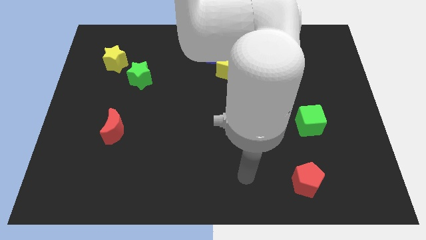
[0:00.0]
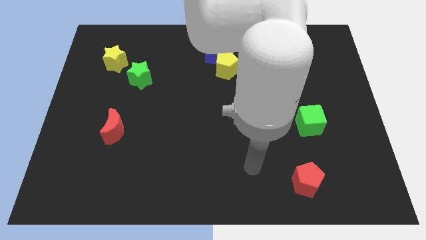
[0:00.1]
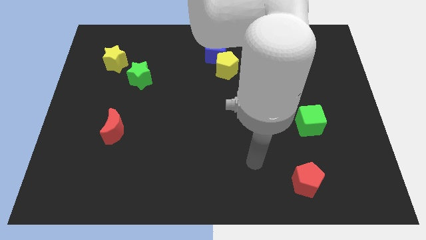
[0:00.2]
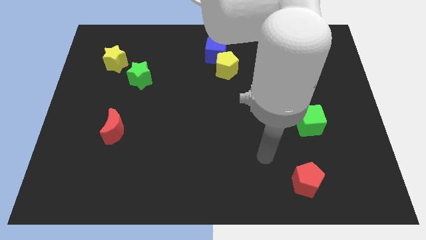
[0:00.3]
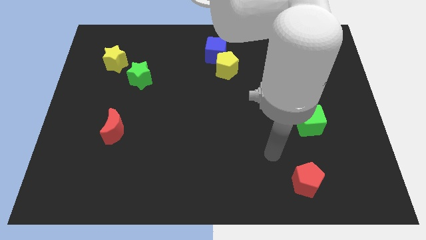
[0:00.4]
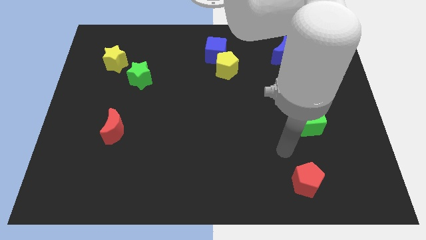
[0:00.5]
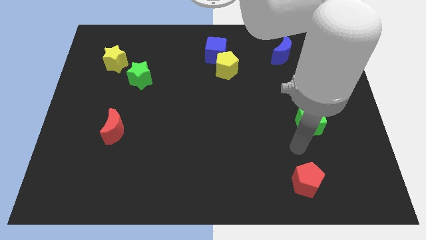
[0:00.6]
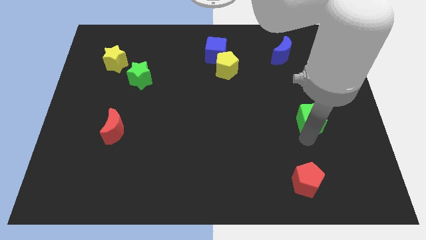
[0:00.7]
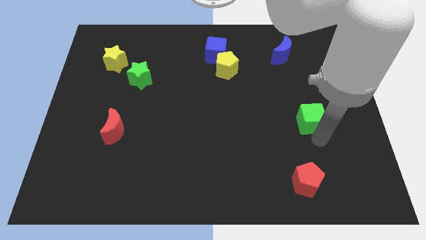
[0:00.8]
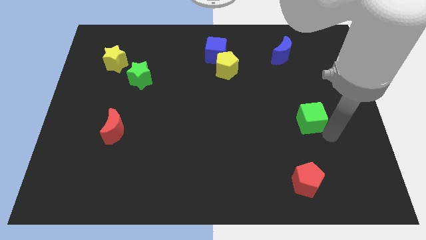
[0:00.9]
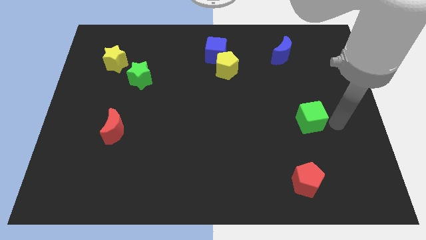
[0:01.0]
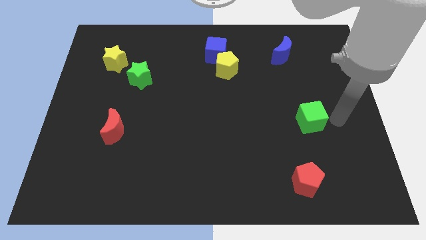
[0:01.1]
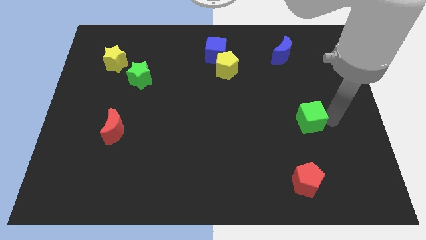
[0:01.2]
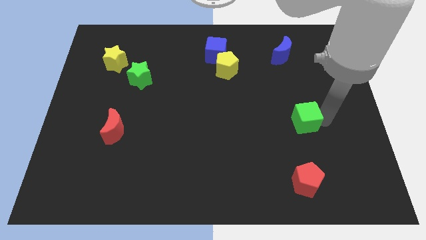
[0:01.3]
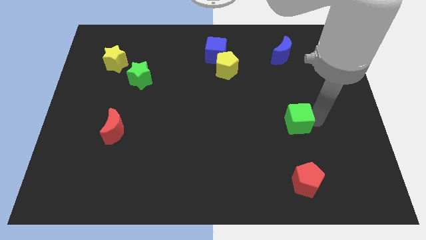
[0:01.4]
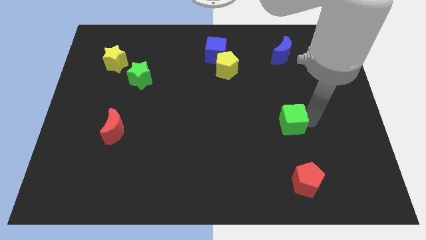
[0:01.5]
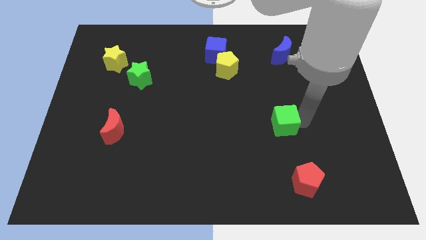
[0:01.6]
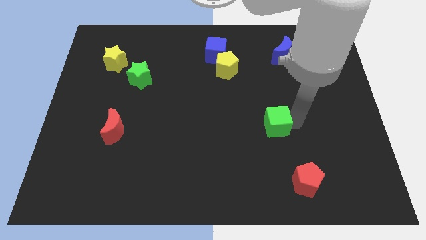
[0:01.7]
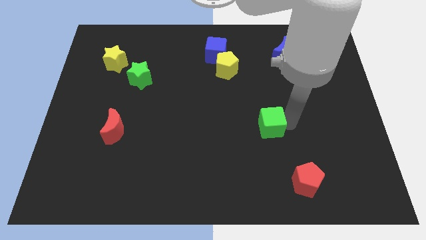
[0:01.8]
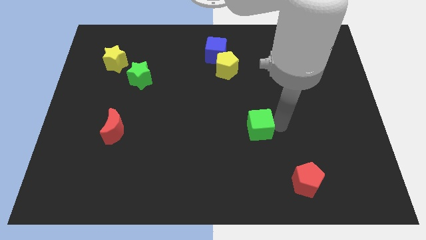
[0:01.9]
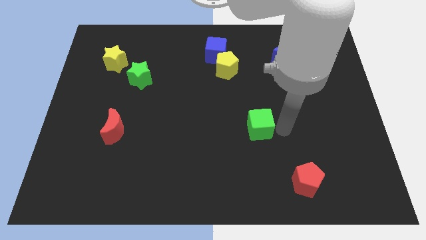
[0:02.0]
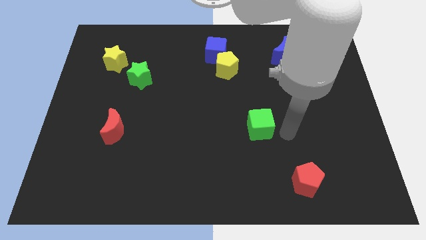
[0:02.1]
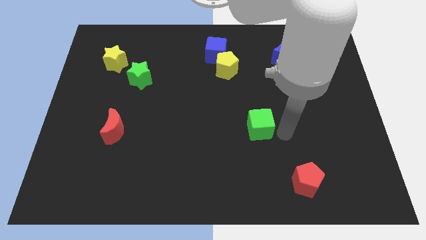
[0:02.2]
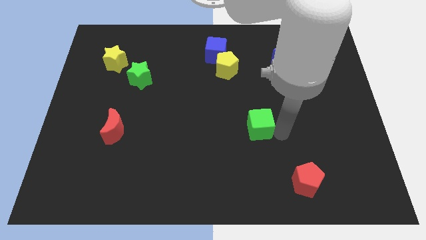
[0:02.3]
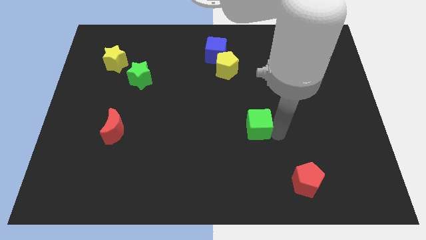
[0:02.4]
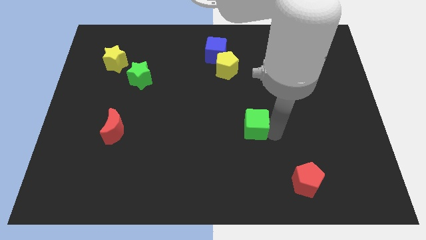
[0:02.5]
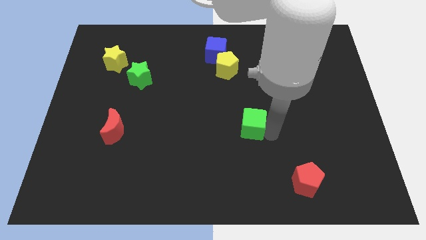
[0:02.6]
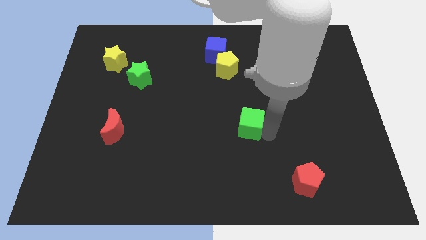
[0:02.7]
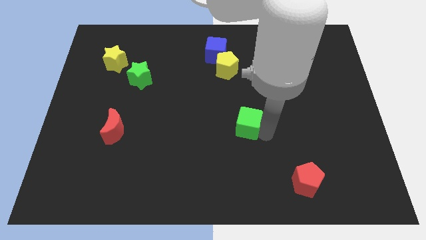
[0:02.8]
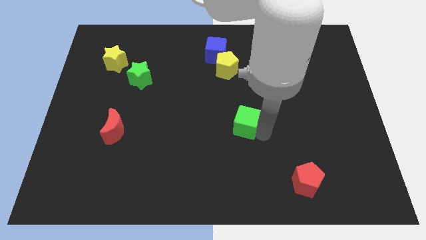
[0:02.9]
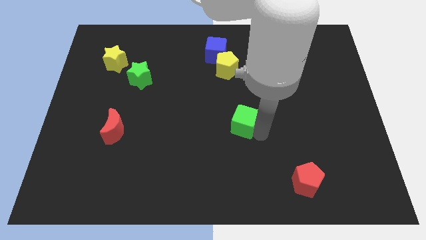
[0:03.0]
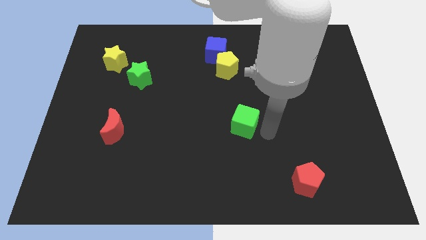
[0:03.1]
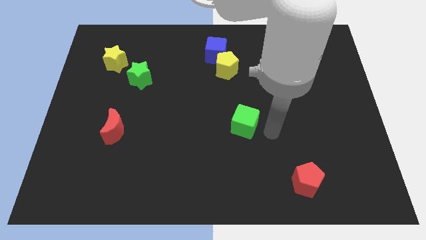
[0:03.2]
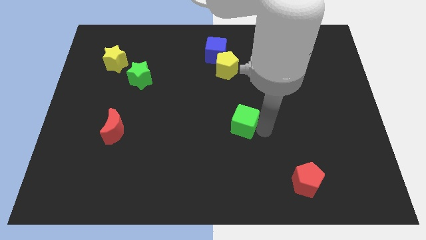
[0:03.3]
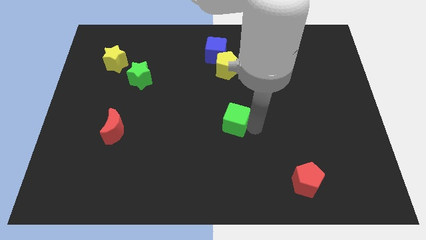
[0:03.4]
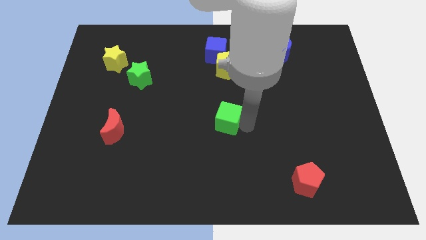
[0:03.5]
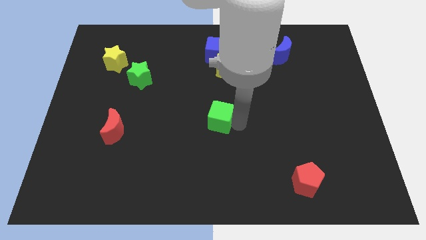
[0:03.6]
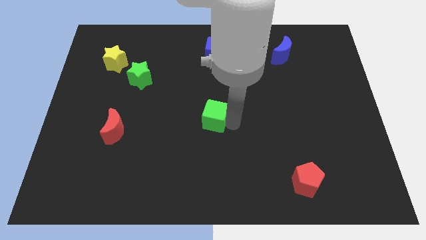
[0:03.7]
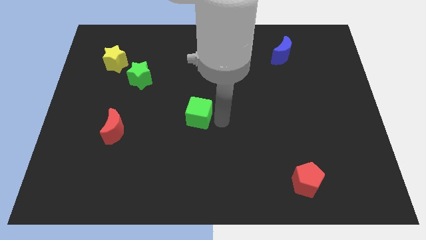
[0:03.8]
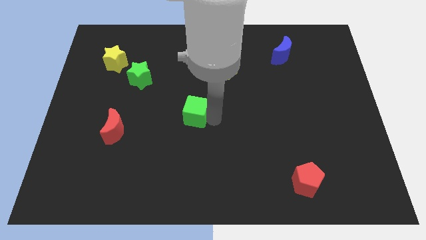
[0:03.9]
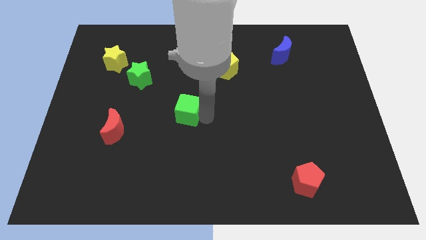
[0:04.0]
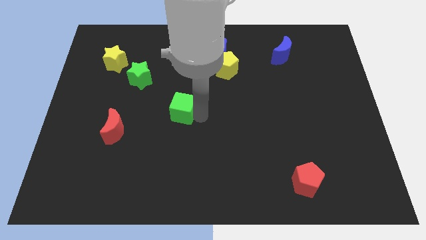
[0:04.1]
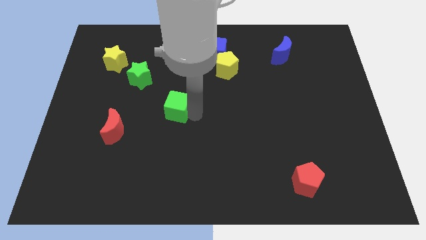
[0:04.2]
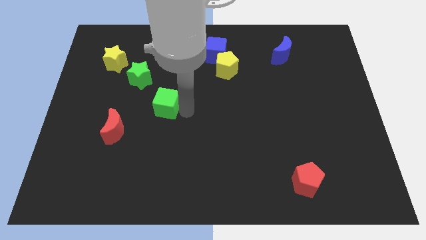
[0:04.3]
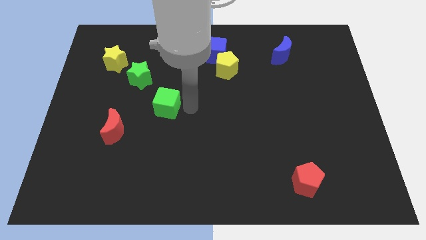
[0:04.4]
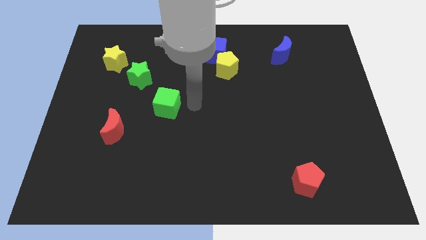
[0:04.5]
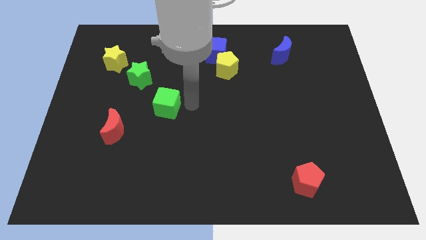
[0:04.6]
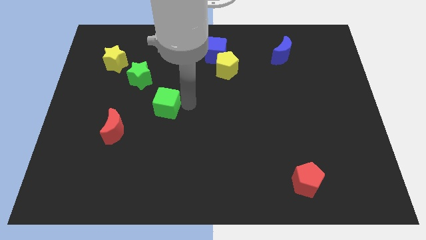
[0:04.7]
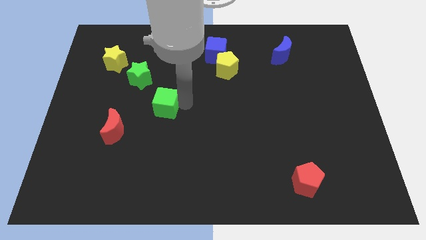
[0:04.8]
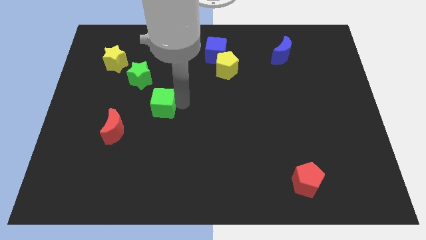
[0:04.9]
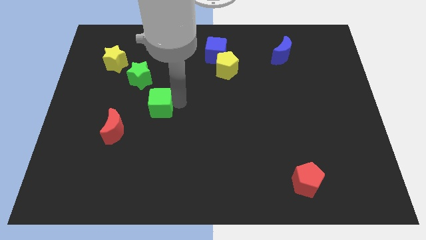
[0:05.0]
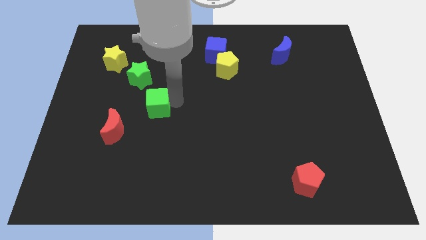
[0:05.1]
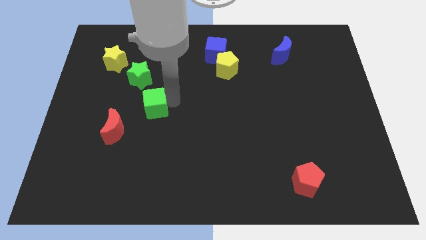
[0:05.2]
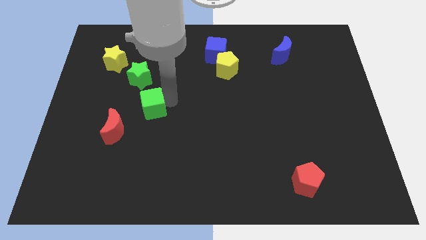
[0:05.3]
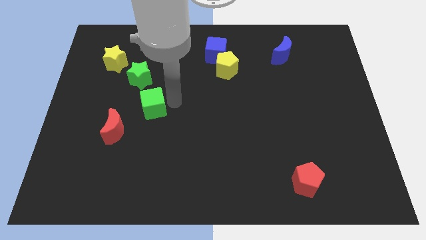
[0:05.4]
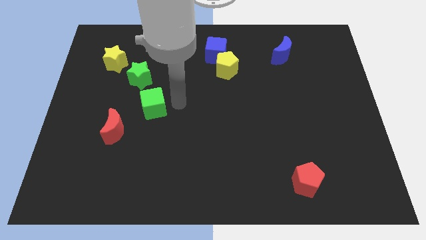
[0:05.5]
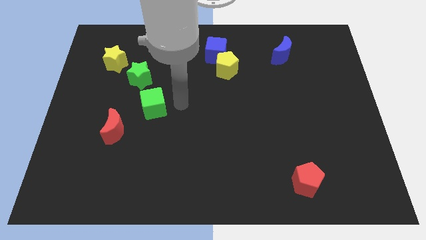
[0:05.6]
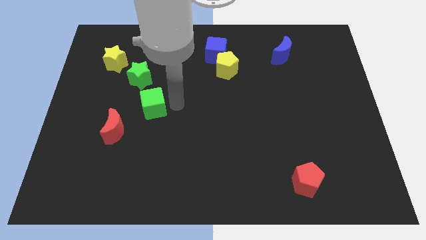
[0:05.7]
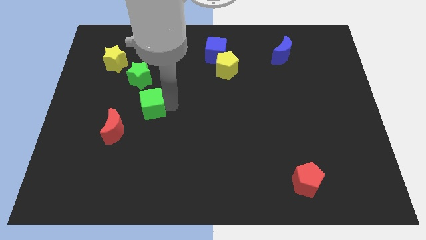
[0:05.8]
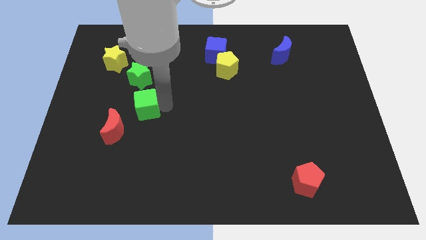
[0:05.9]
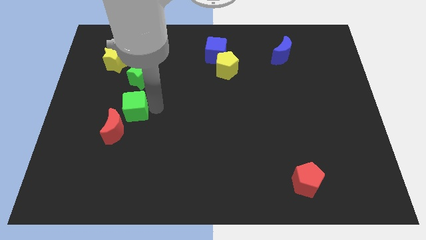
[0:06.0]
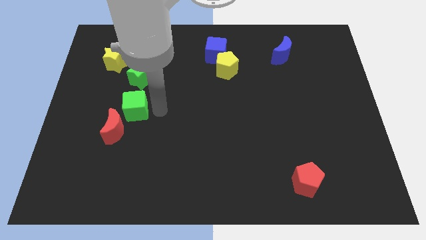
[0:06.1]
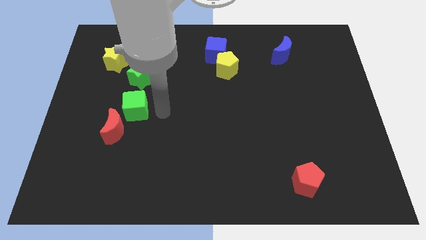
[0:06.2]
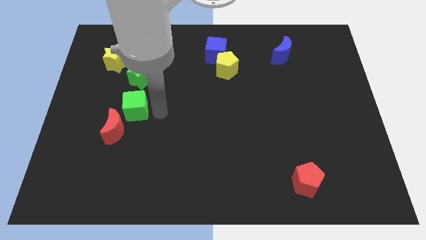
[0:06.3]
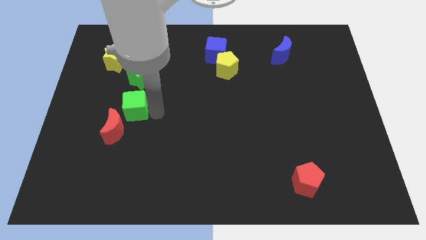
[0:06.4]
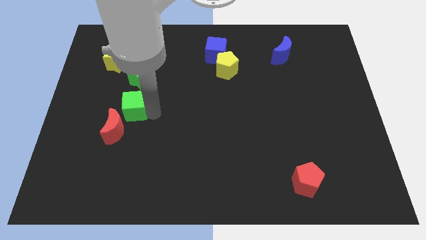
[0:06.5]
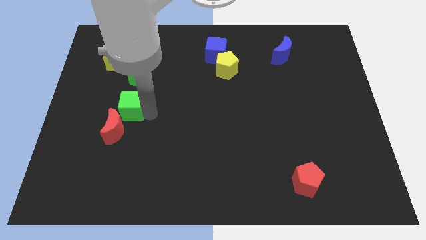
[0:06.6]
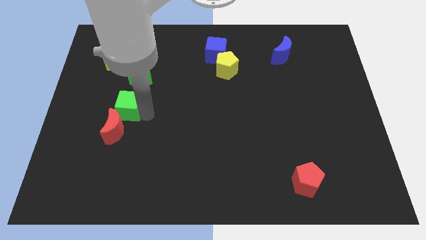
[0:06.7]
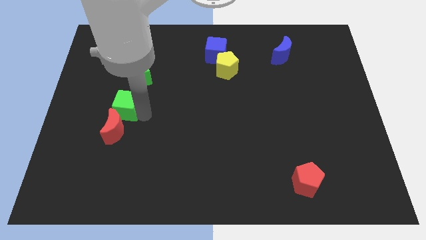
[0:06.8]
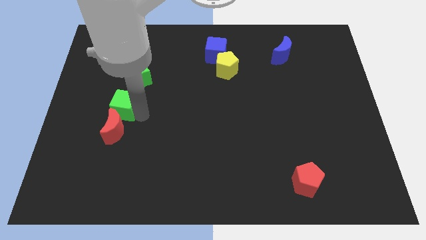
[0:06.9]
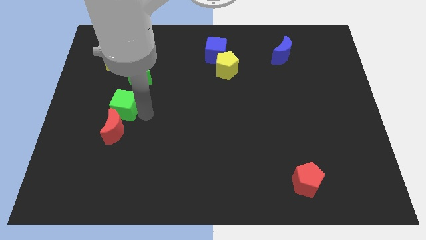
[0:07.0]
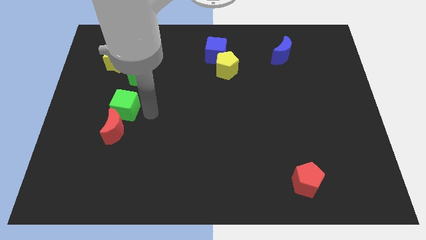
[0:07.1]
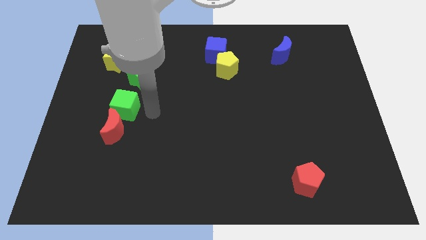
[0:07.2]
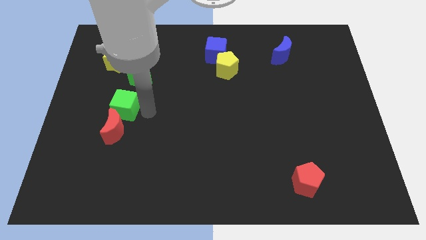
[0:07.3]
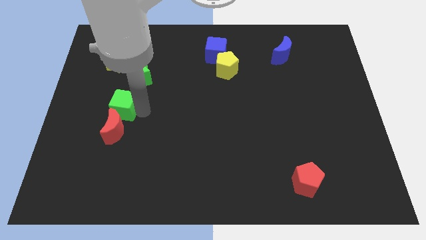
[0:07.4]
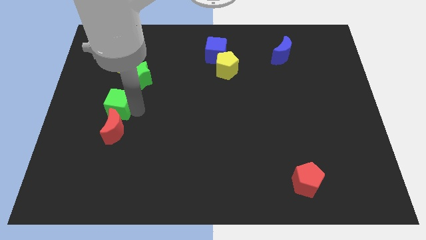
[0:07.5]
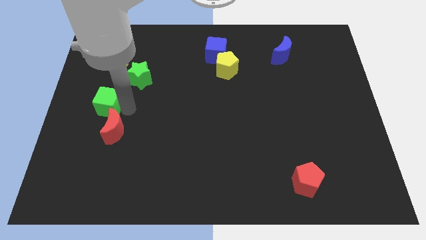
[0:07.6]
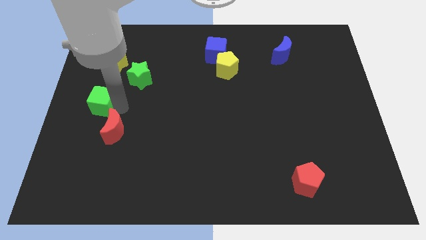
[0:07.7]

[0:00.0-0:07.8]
move the green cube to the left side of the board
